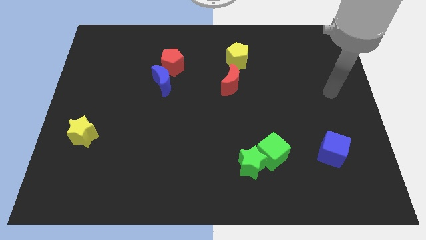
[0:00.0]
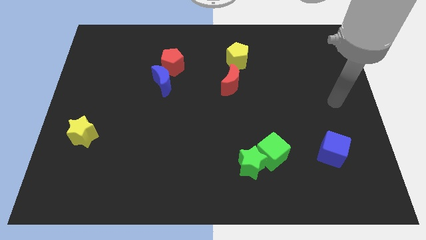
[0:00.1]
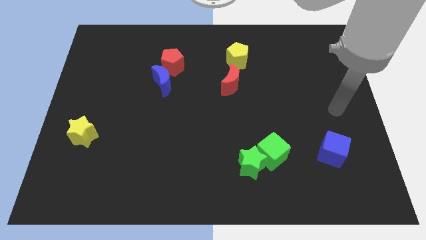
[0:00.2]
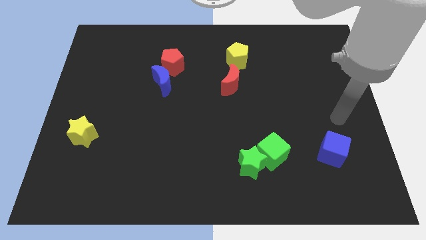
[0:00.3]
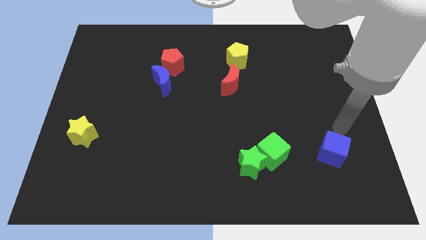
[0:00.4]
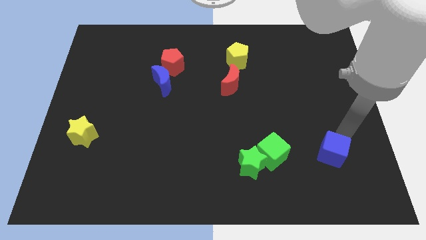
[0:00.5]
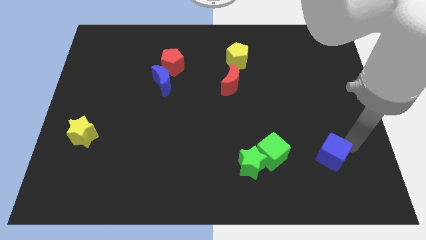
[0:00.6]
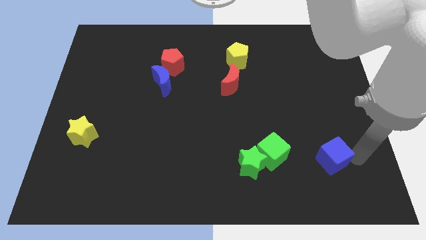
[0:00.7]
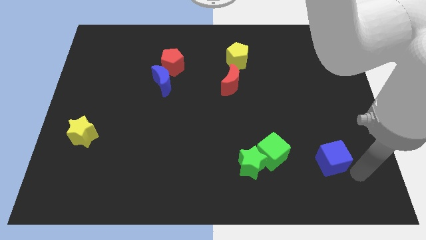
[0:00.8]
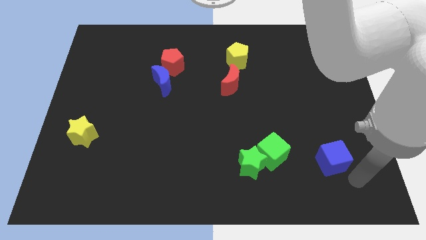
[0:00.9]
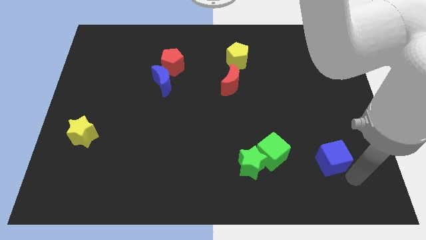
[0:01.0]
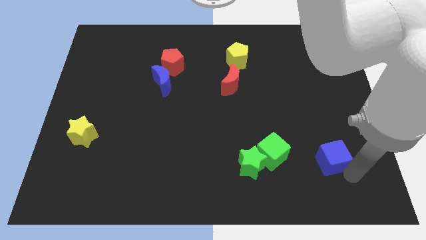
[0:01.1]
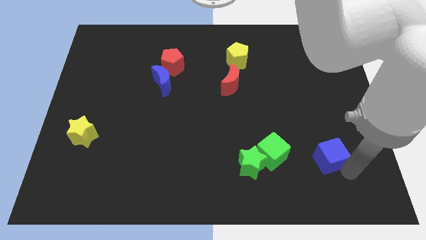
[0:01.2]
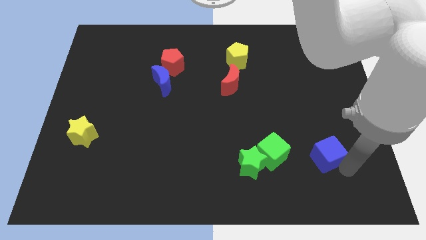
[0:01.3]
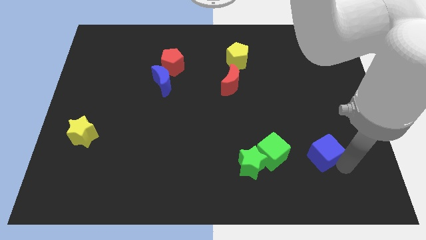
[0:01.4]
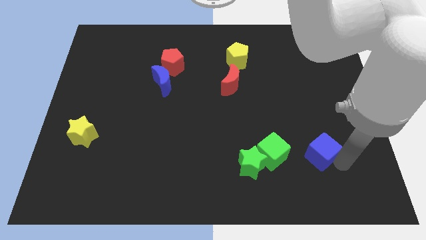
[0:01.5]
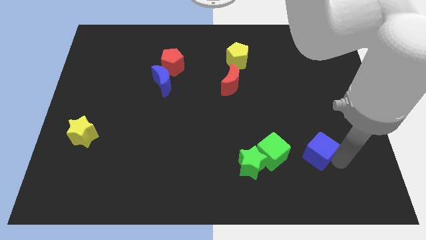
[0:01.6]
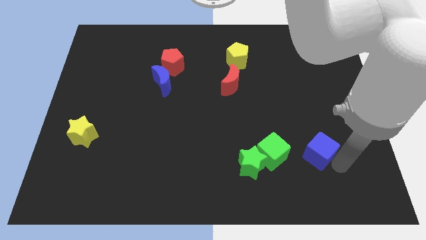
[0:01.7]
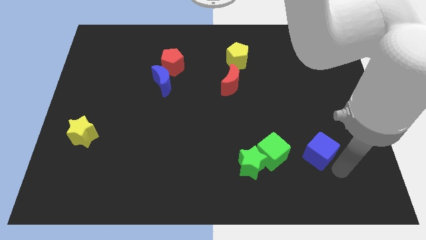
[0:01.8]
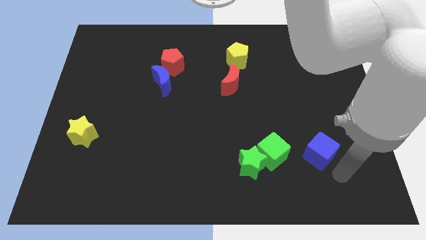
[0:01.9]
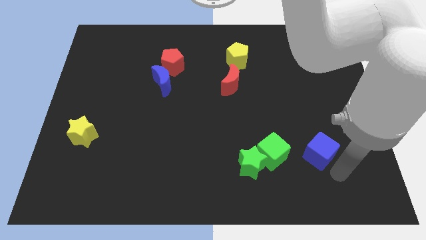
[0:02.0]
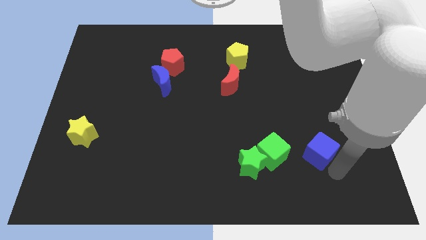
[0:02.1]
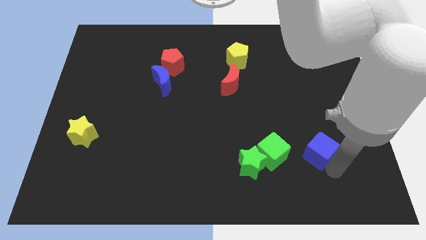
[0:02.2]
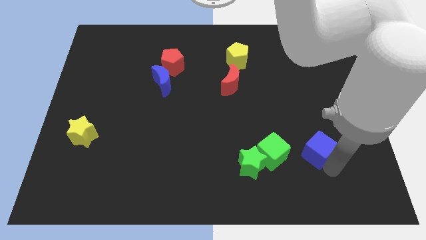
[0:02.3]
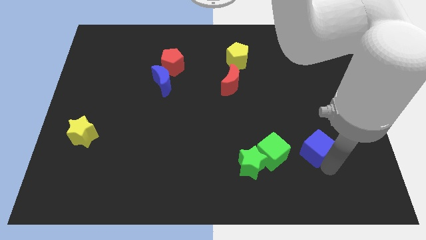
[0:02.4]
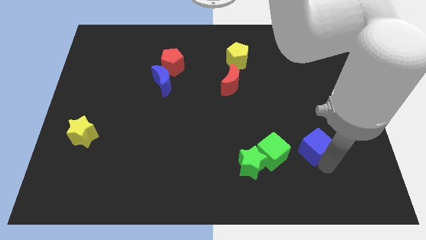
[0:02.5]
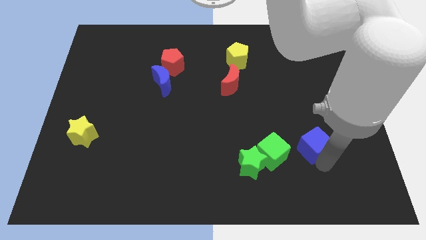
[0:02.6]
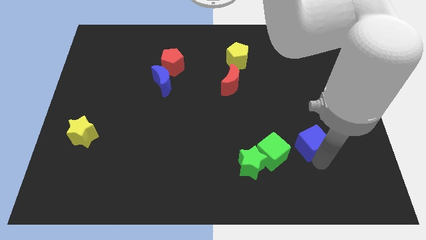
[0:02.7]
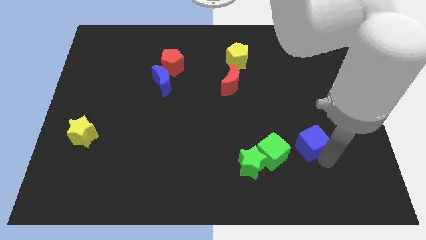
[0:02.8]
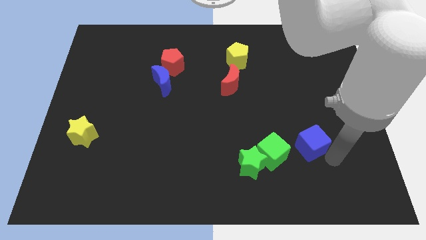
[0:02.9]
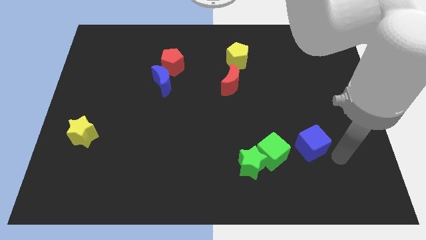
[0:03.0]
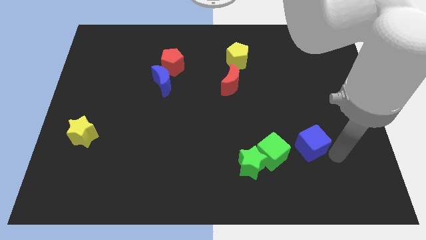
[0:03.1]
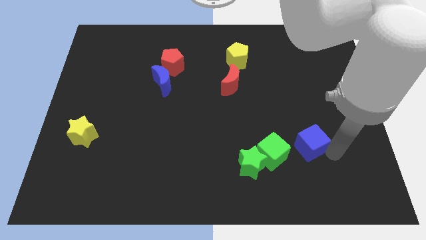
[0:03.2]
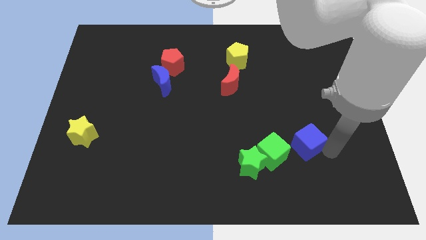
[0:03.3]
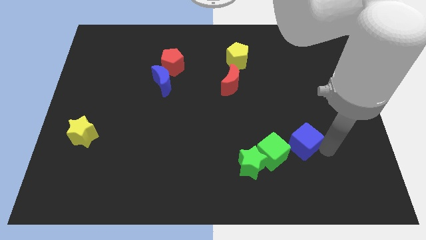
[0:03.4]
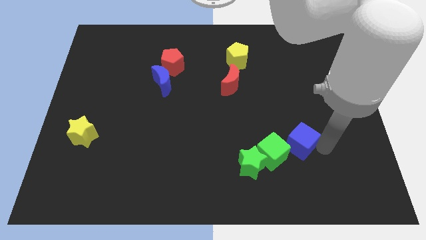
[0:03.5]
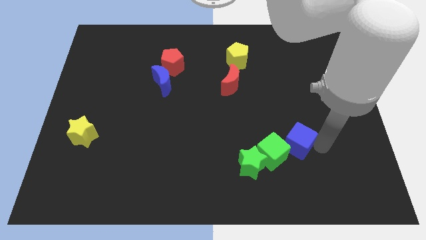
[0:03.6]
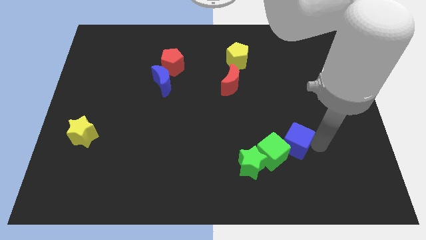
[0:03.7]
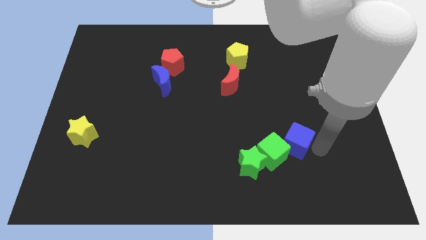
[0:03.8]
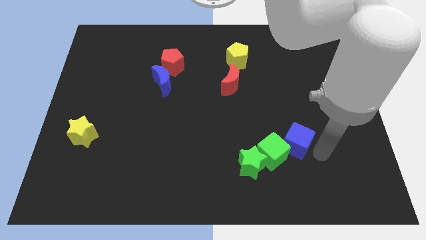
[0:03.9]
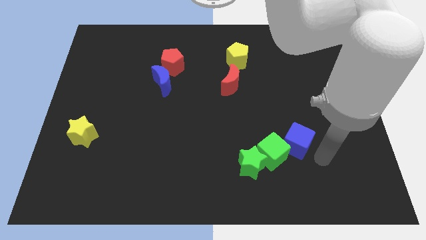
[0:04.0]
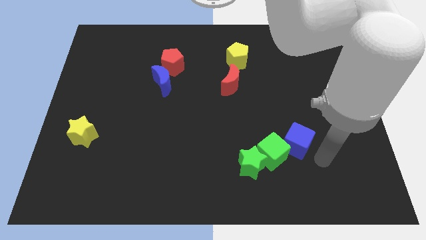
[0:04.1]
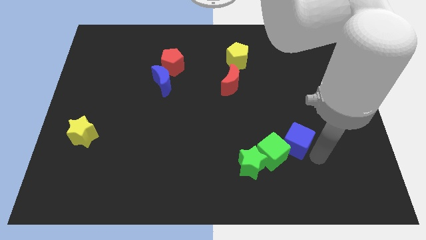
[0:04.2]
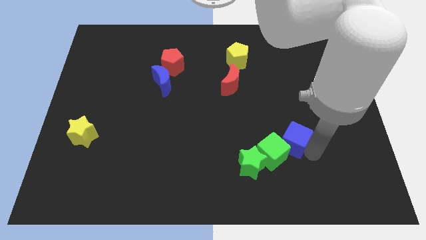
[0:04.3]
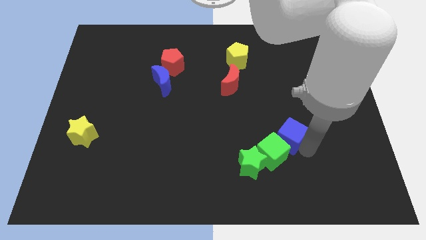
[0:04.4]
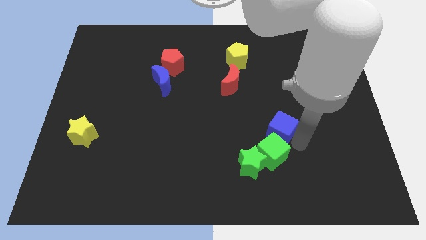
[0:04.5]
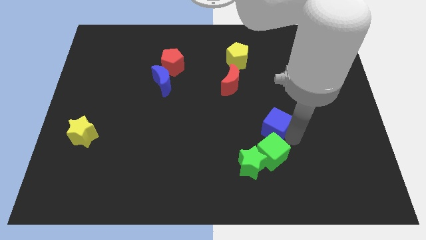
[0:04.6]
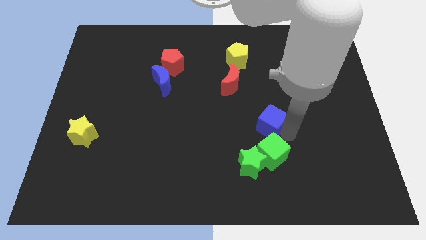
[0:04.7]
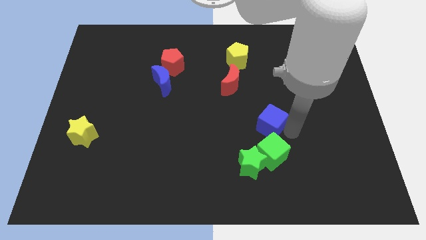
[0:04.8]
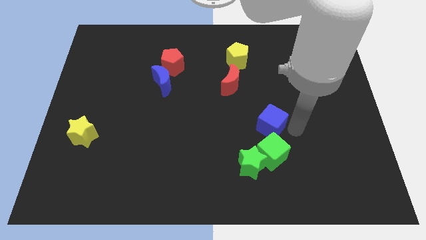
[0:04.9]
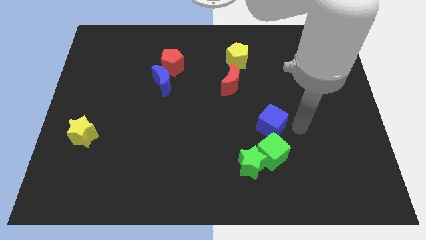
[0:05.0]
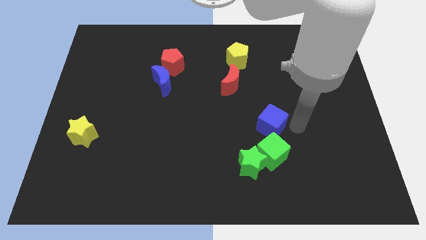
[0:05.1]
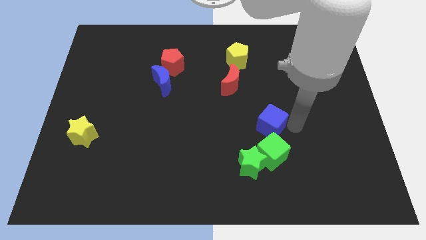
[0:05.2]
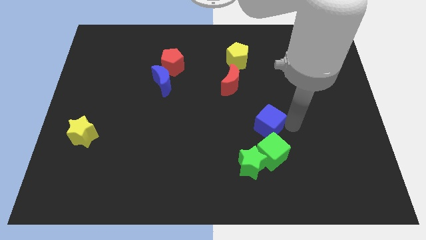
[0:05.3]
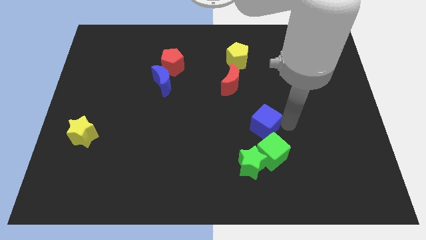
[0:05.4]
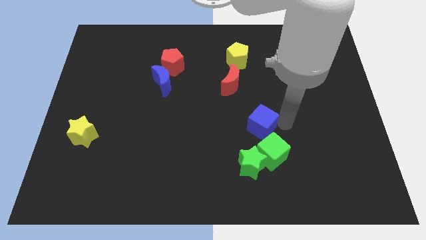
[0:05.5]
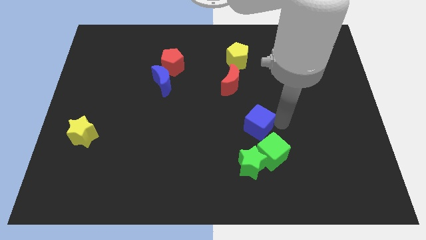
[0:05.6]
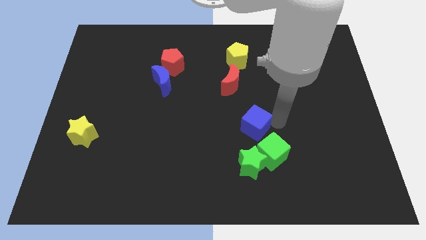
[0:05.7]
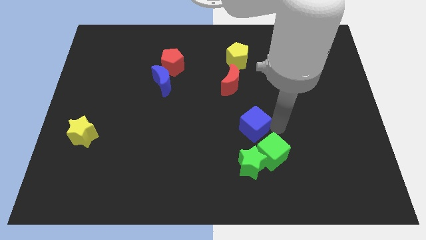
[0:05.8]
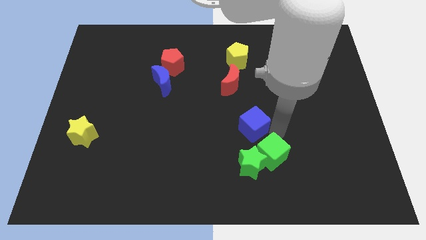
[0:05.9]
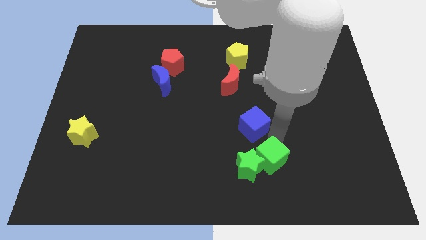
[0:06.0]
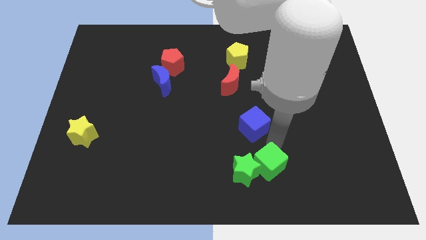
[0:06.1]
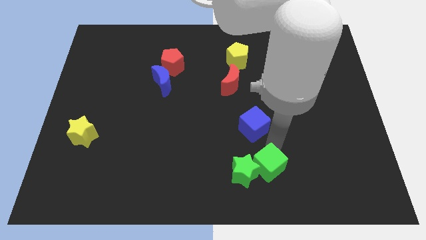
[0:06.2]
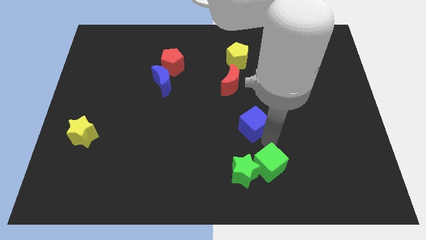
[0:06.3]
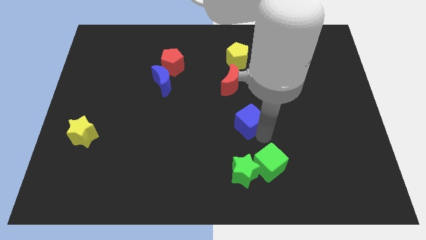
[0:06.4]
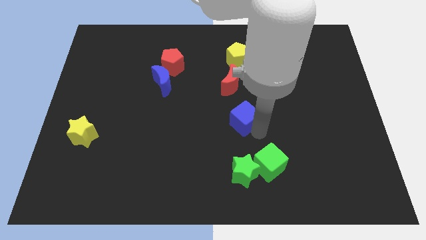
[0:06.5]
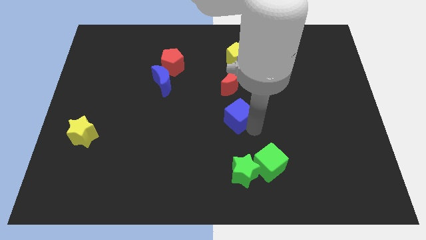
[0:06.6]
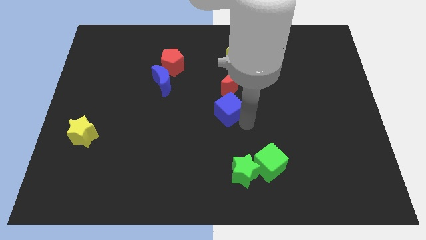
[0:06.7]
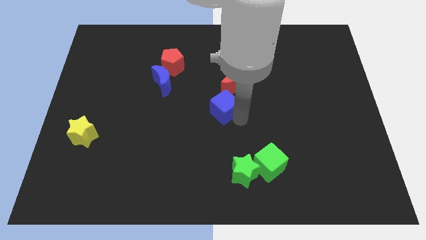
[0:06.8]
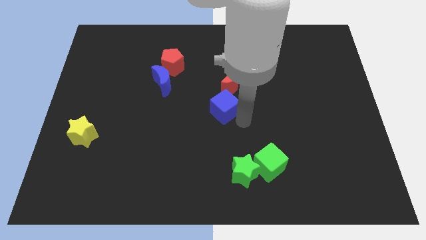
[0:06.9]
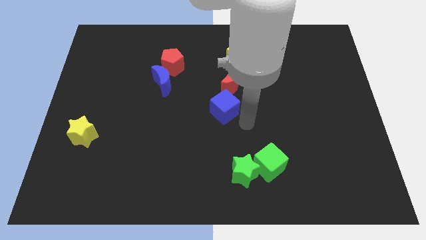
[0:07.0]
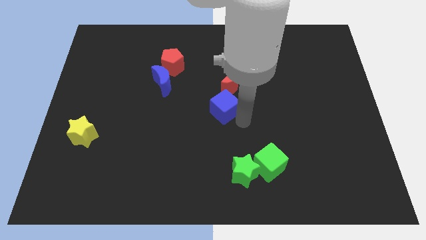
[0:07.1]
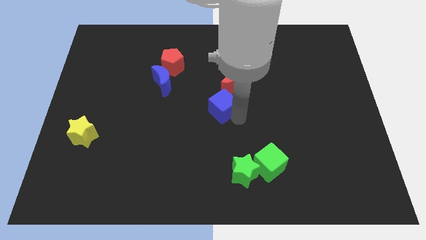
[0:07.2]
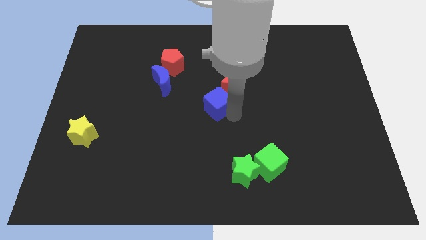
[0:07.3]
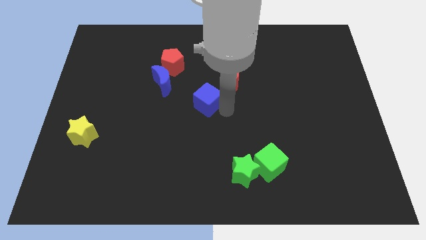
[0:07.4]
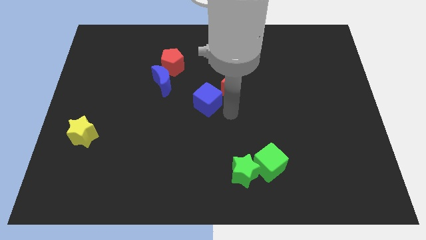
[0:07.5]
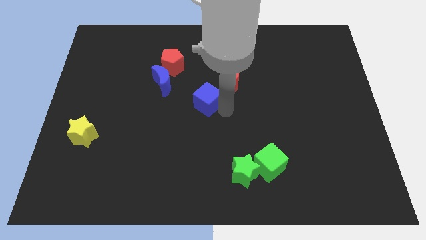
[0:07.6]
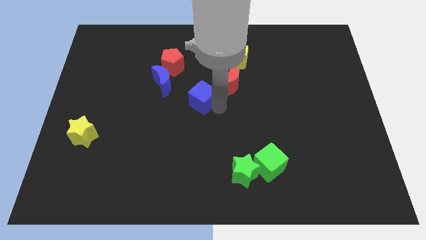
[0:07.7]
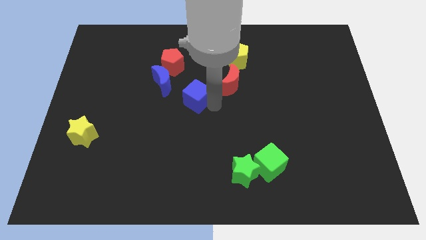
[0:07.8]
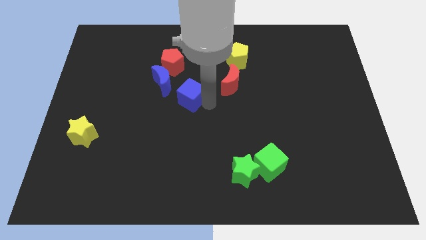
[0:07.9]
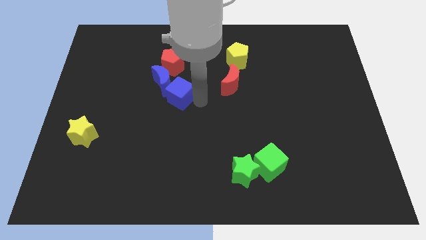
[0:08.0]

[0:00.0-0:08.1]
push the blue cube to the blue moon

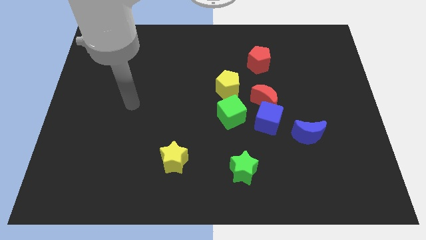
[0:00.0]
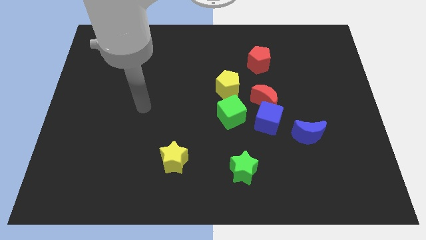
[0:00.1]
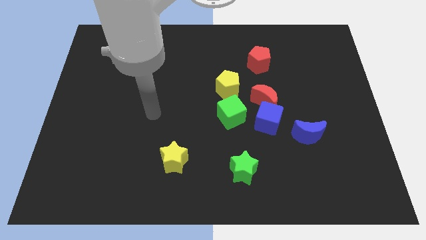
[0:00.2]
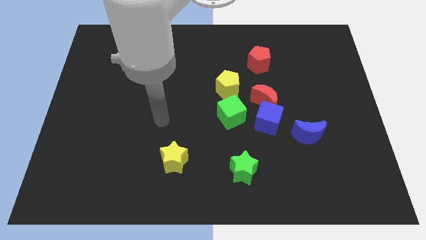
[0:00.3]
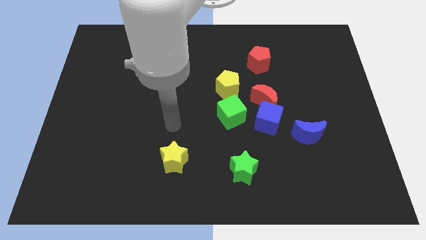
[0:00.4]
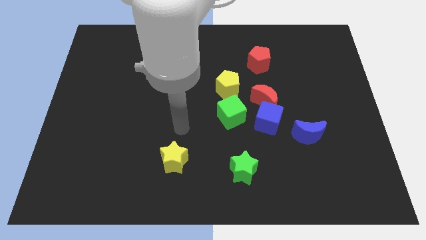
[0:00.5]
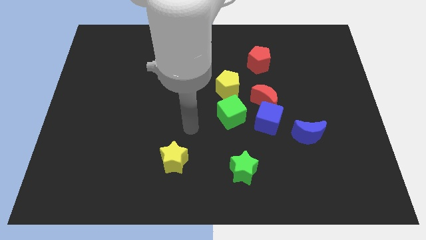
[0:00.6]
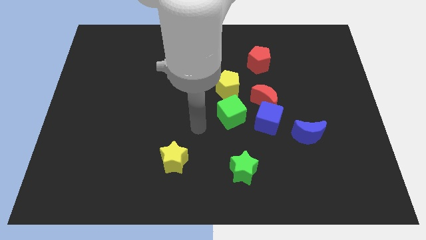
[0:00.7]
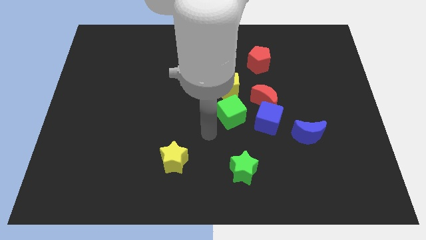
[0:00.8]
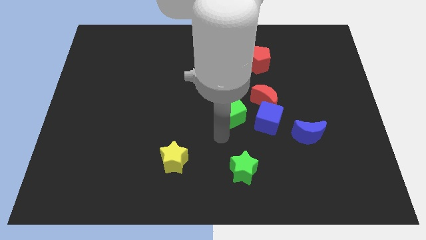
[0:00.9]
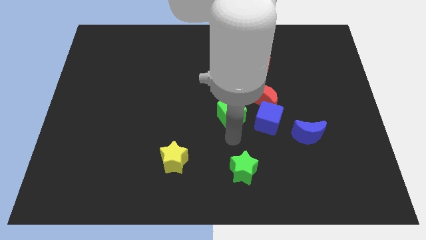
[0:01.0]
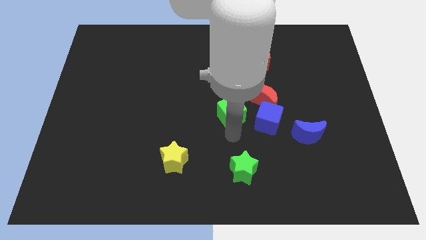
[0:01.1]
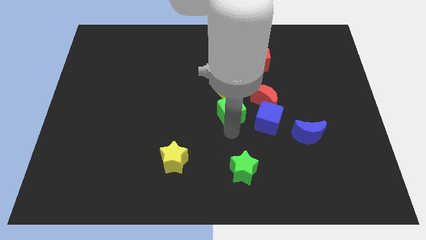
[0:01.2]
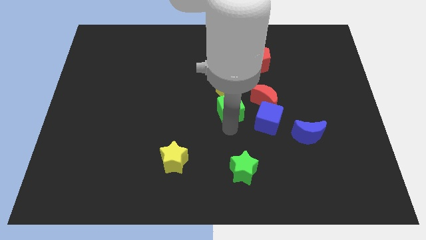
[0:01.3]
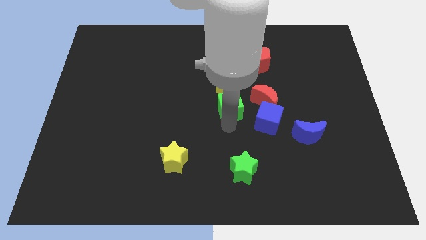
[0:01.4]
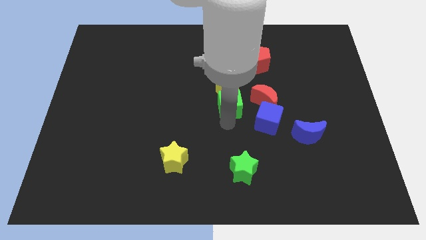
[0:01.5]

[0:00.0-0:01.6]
slide the green cube towards the yellow pentagon
